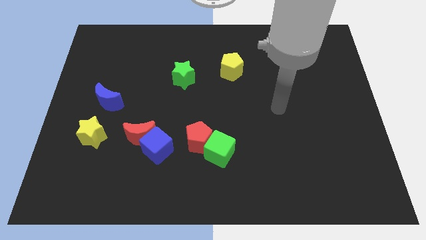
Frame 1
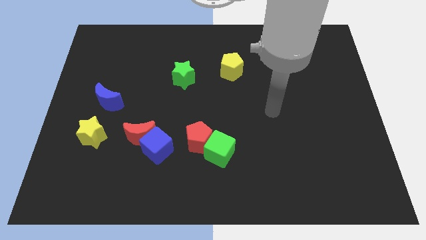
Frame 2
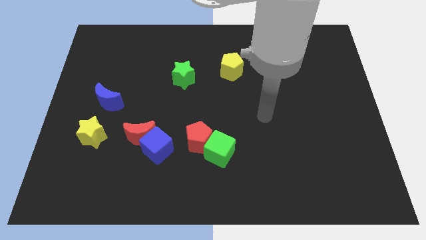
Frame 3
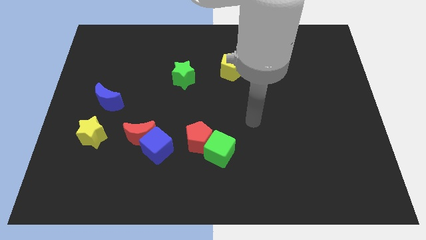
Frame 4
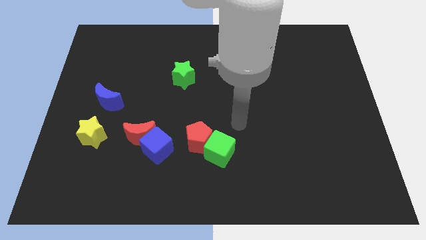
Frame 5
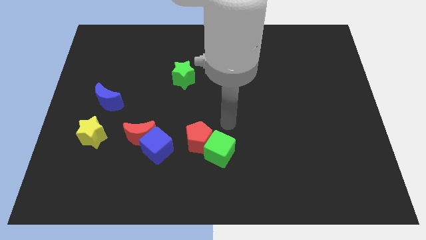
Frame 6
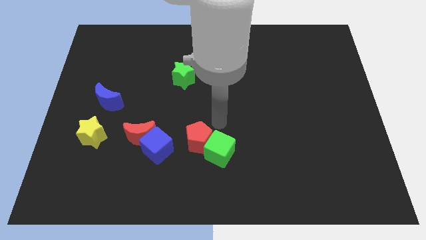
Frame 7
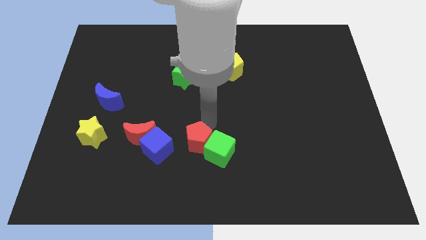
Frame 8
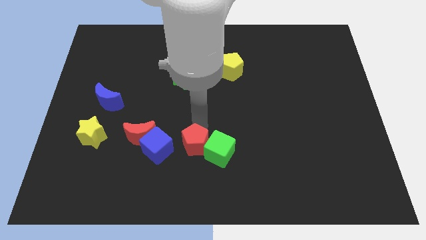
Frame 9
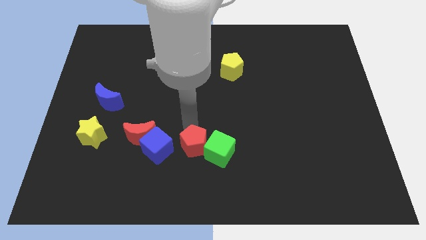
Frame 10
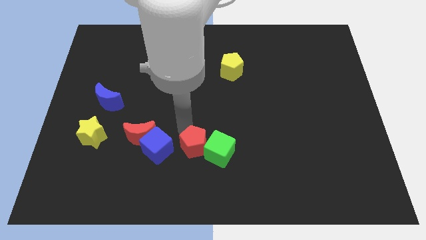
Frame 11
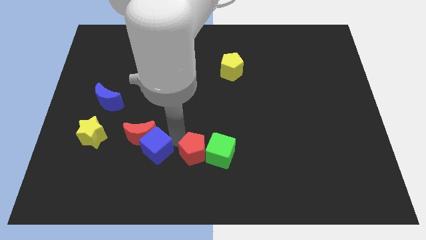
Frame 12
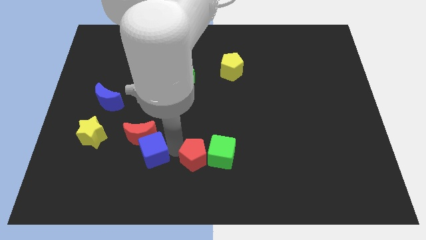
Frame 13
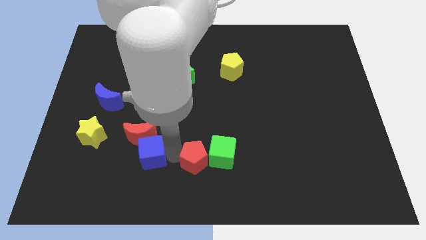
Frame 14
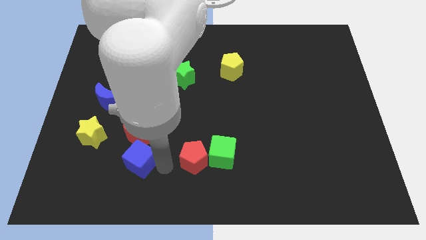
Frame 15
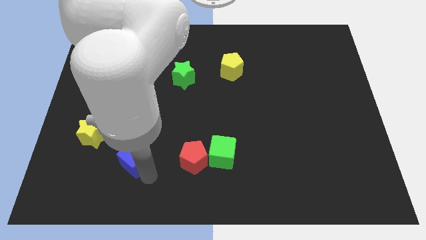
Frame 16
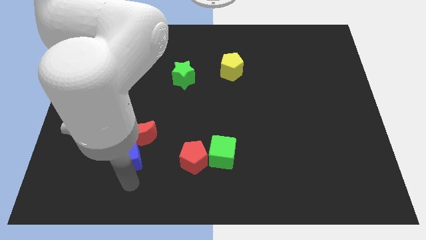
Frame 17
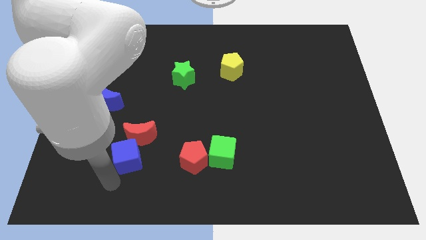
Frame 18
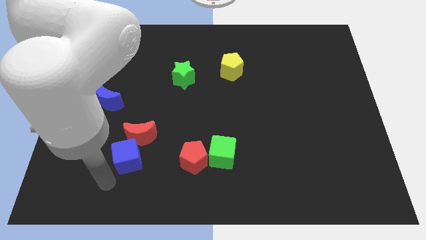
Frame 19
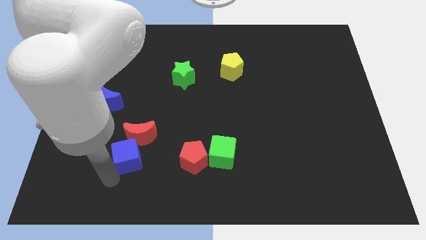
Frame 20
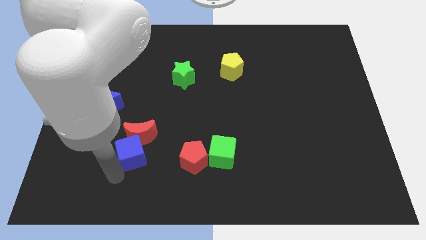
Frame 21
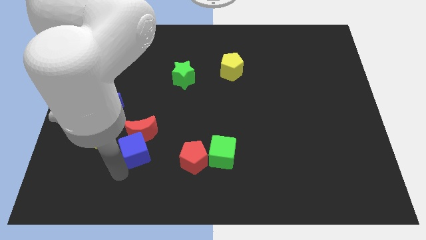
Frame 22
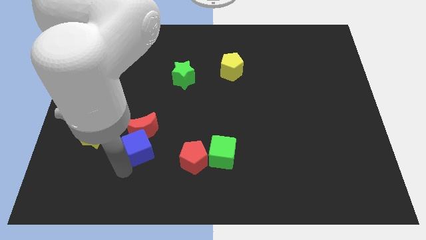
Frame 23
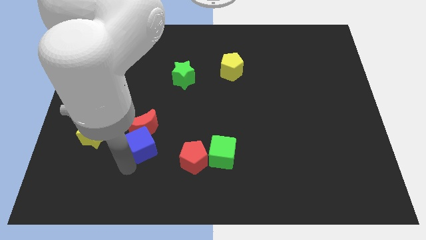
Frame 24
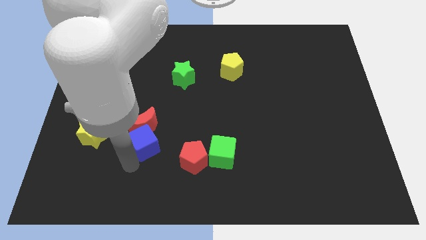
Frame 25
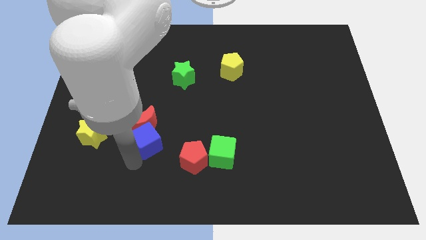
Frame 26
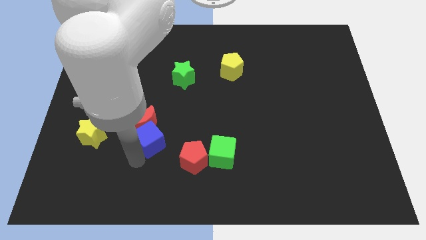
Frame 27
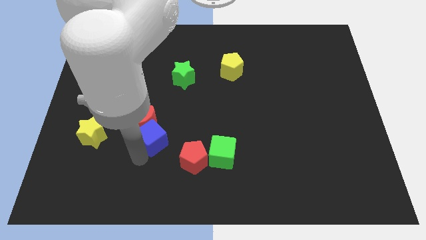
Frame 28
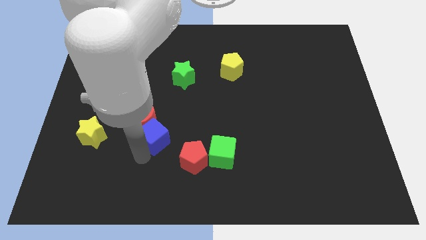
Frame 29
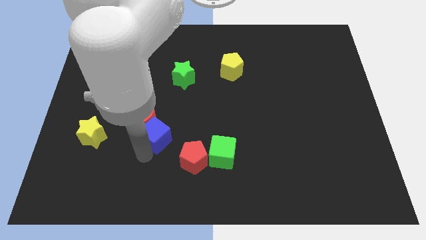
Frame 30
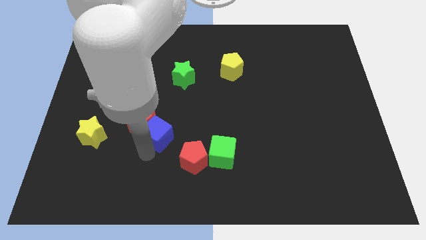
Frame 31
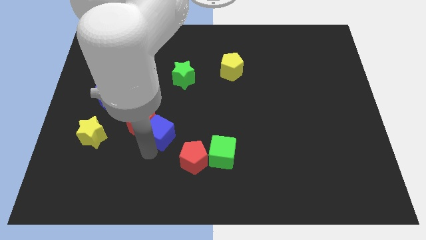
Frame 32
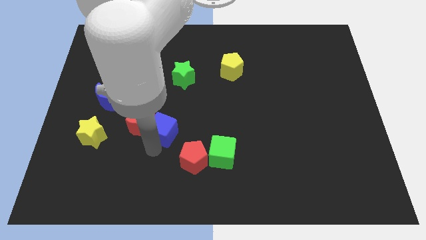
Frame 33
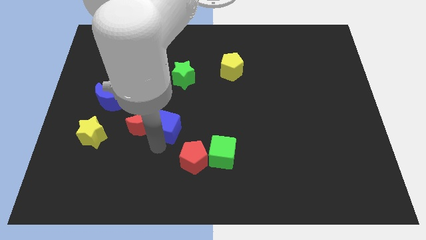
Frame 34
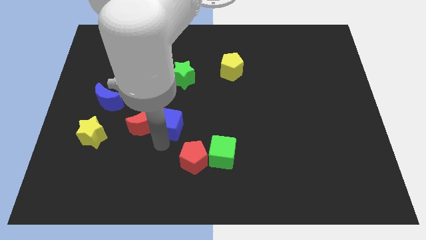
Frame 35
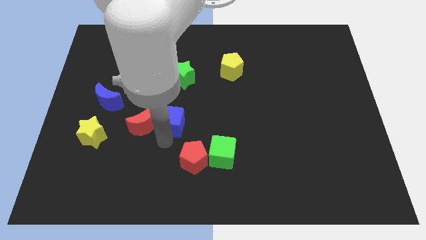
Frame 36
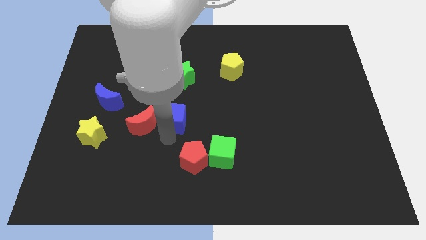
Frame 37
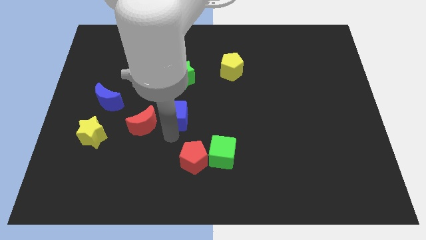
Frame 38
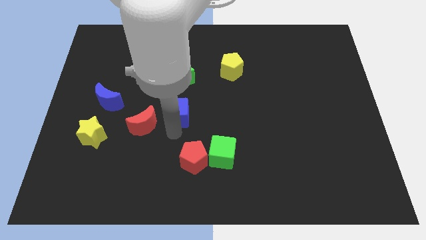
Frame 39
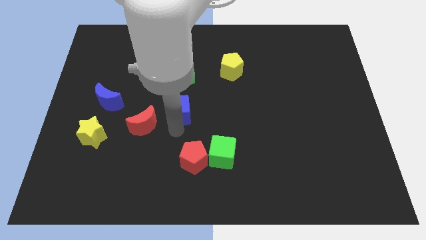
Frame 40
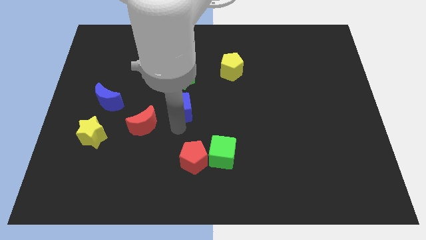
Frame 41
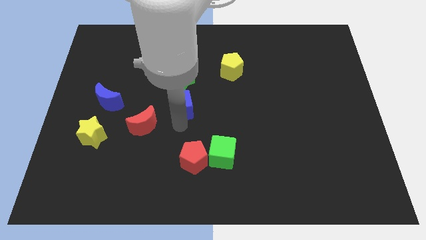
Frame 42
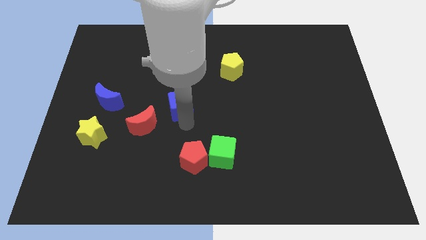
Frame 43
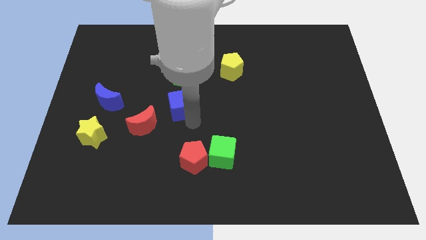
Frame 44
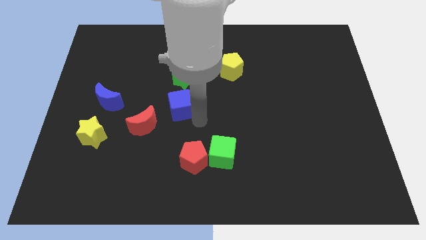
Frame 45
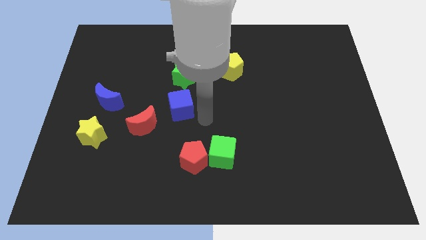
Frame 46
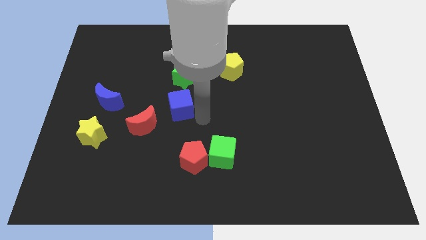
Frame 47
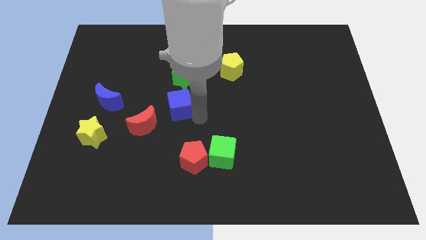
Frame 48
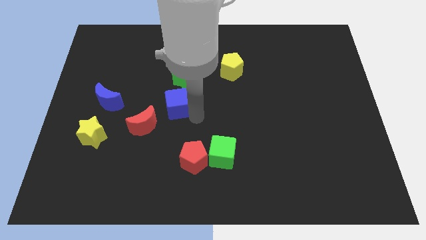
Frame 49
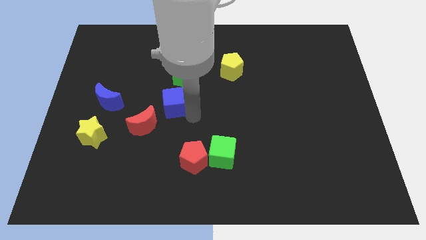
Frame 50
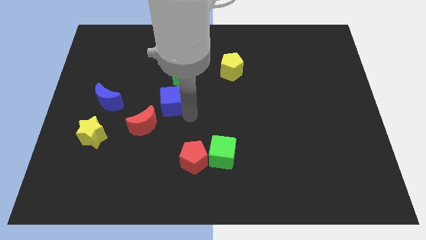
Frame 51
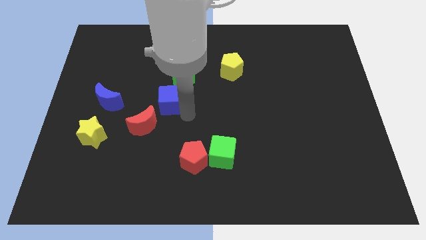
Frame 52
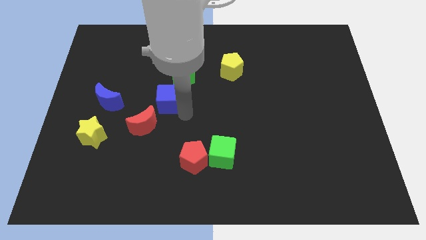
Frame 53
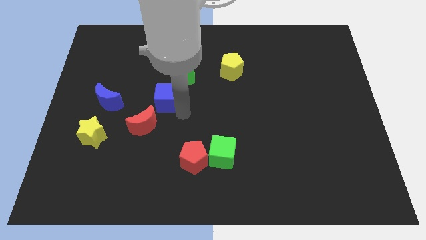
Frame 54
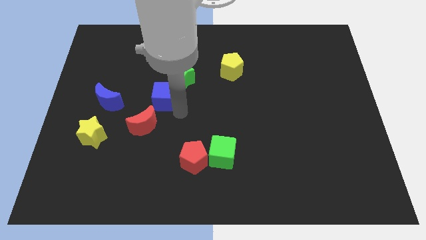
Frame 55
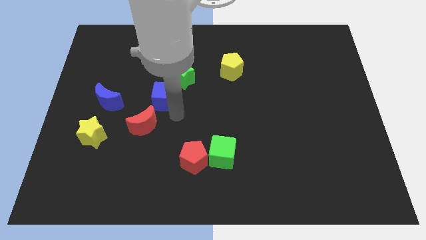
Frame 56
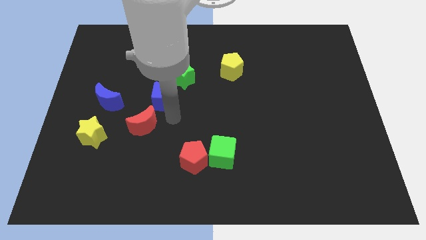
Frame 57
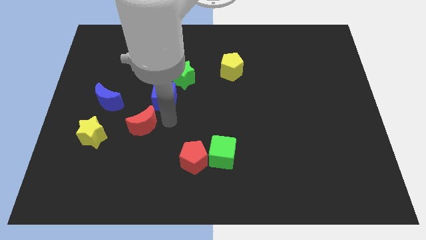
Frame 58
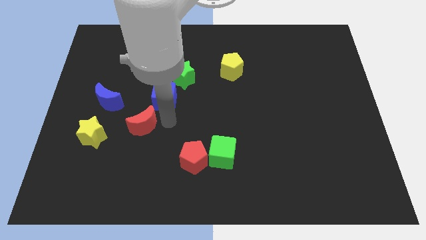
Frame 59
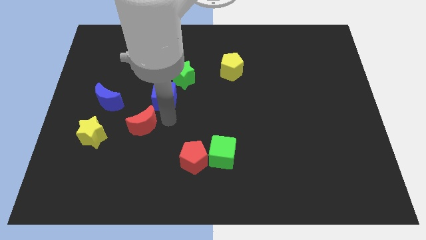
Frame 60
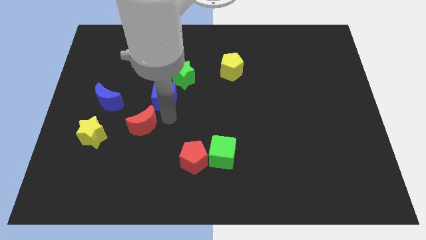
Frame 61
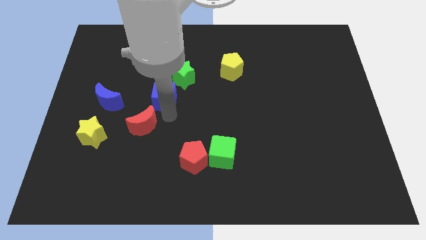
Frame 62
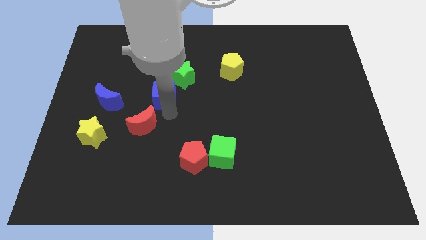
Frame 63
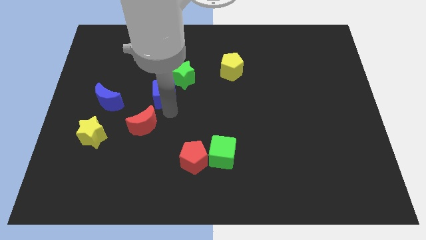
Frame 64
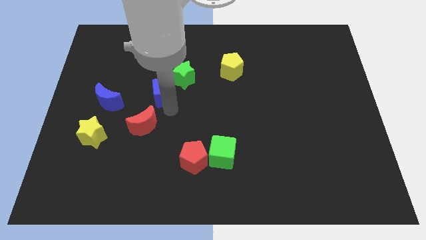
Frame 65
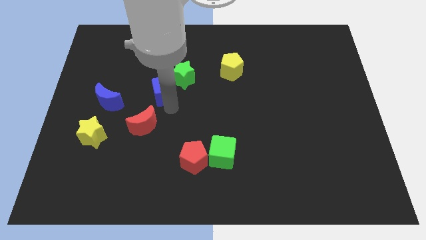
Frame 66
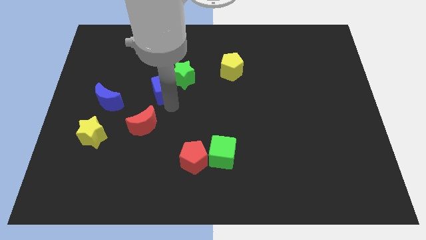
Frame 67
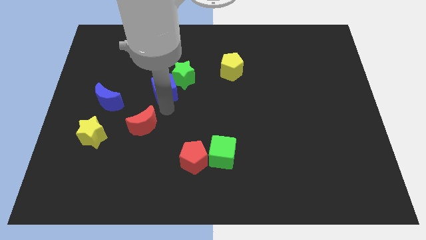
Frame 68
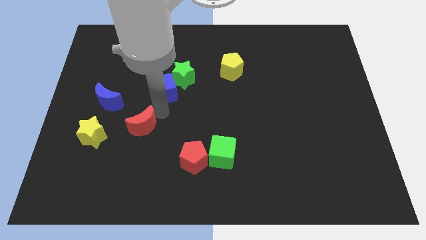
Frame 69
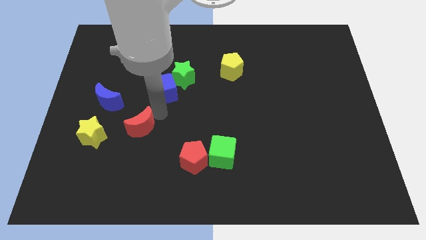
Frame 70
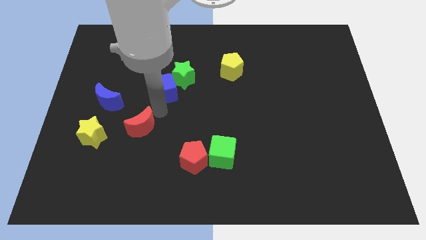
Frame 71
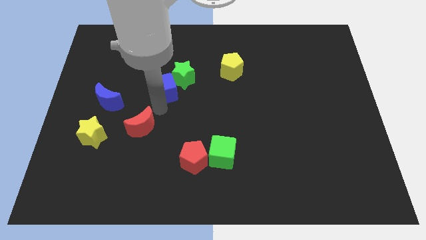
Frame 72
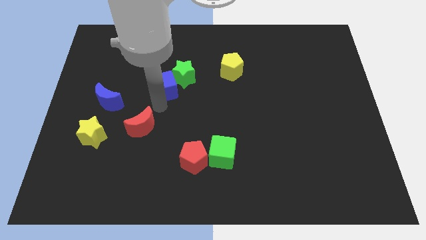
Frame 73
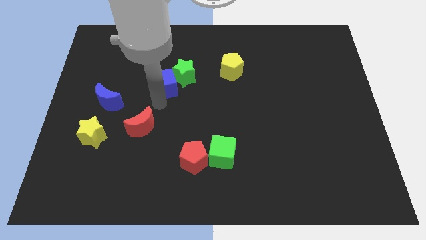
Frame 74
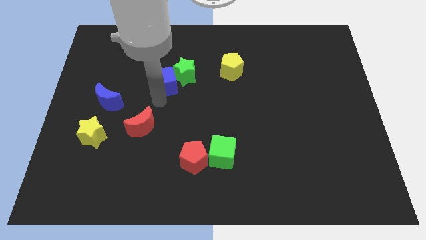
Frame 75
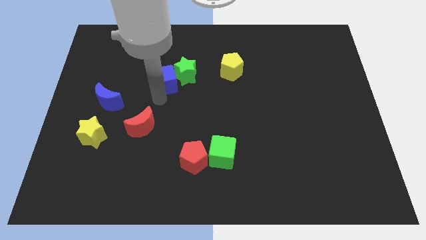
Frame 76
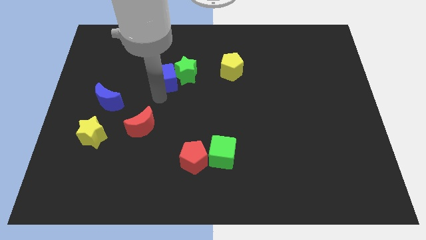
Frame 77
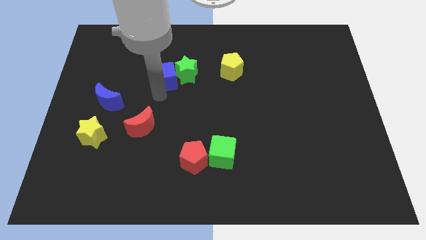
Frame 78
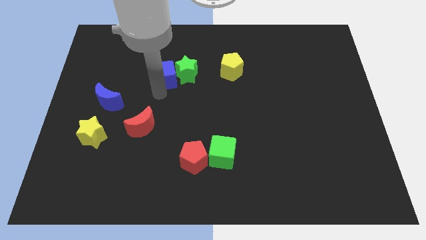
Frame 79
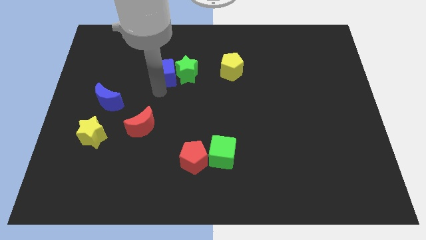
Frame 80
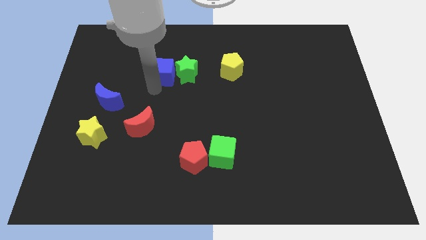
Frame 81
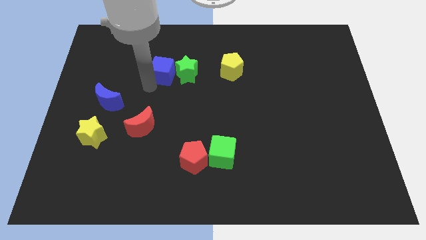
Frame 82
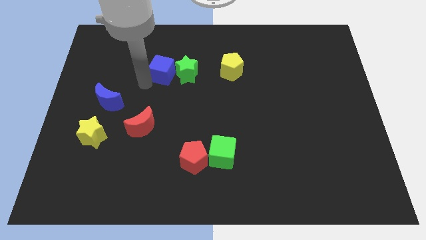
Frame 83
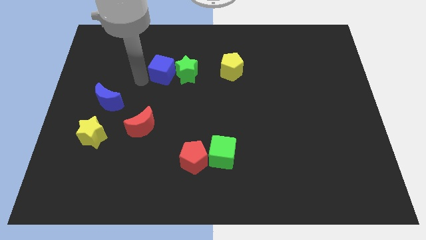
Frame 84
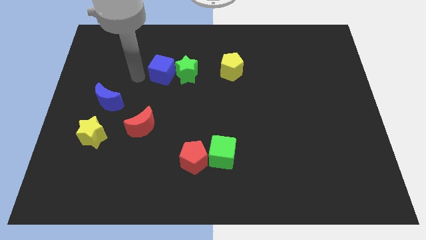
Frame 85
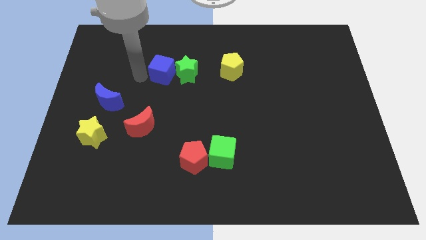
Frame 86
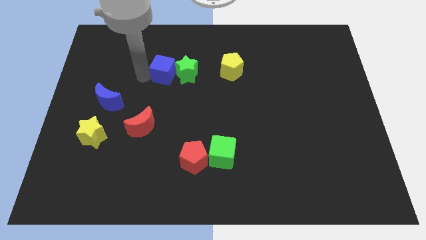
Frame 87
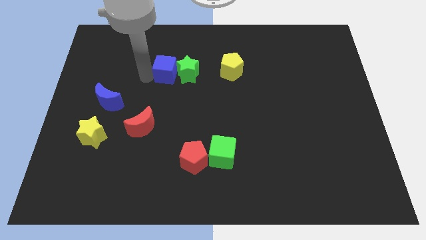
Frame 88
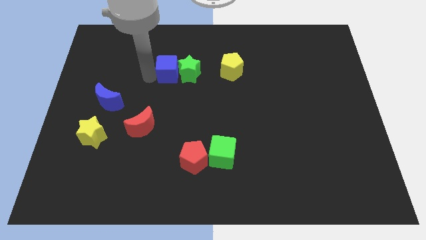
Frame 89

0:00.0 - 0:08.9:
push the blue cube to the left of the yellow pentagon
